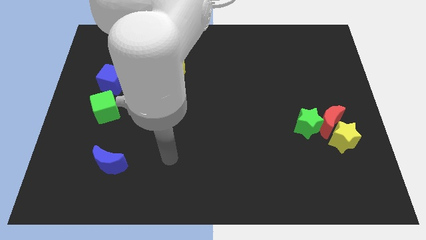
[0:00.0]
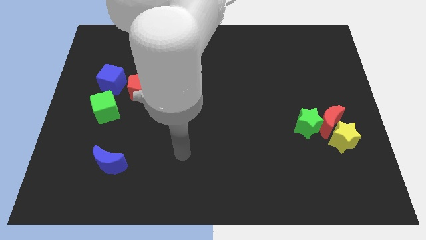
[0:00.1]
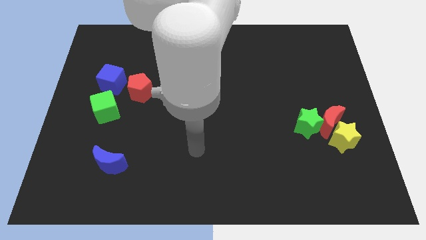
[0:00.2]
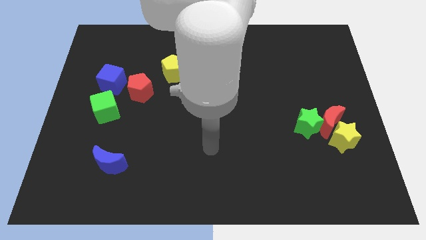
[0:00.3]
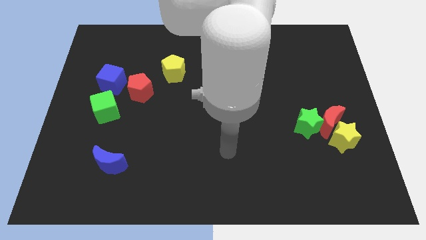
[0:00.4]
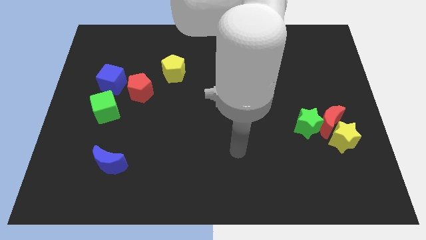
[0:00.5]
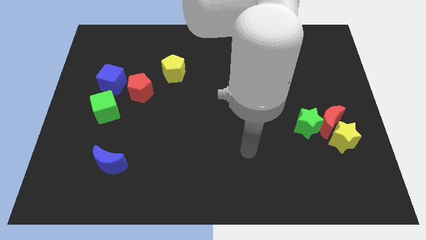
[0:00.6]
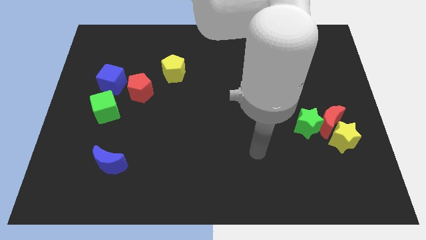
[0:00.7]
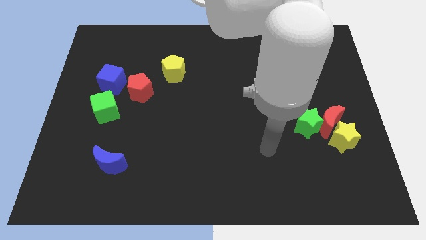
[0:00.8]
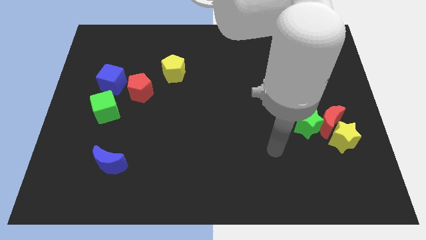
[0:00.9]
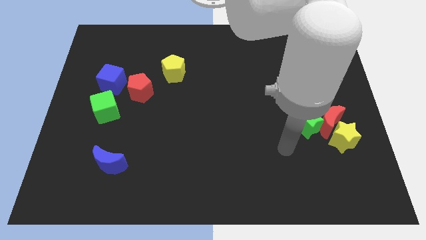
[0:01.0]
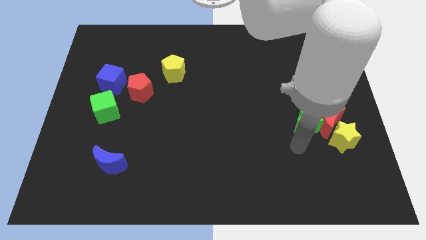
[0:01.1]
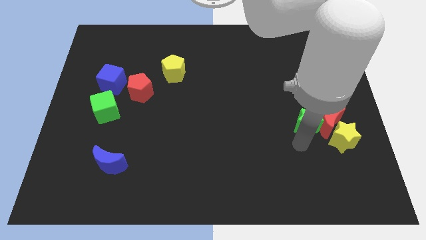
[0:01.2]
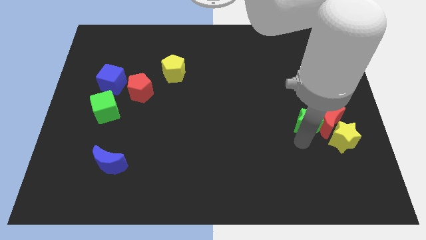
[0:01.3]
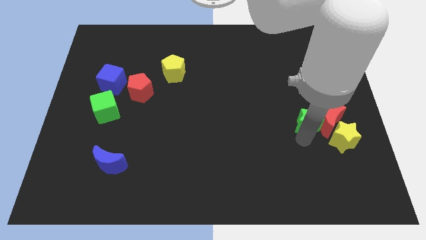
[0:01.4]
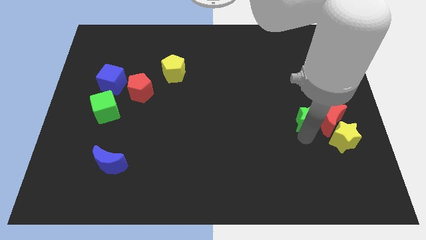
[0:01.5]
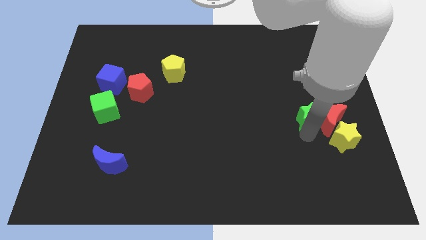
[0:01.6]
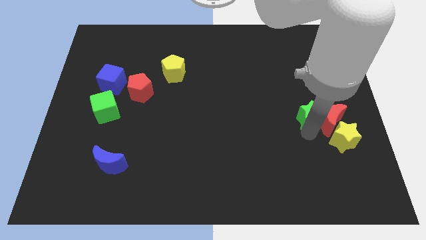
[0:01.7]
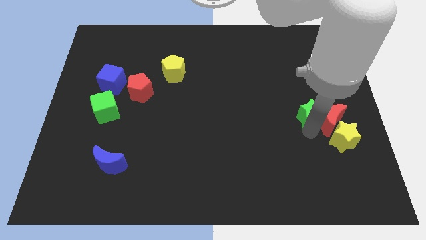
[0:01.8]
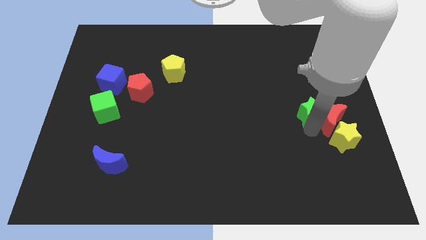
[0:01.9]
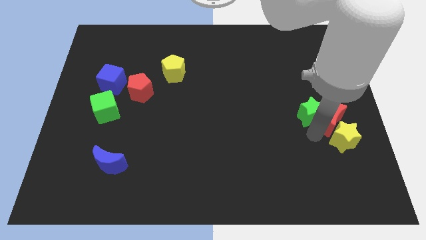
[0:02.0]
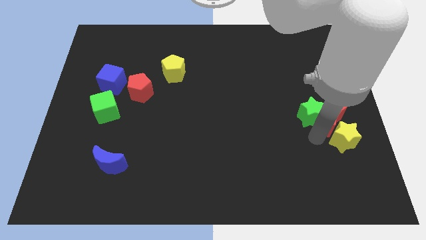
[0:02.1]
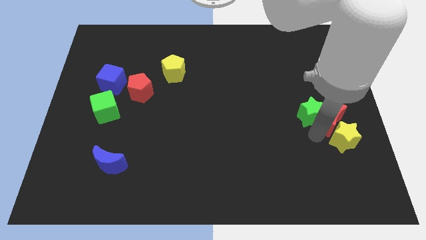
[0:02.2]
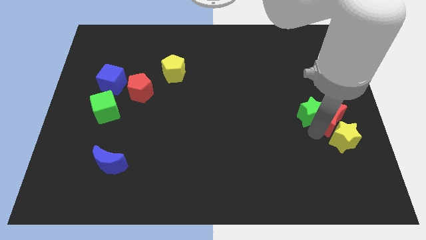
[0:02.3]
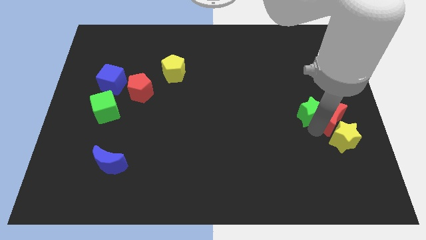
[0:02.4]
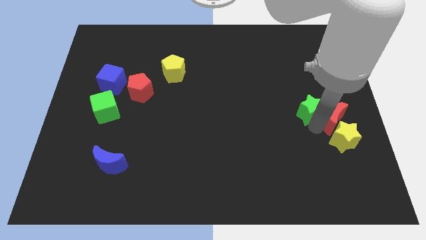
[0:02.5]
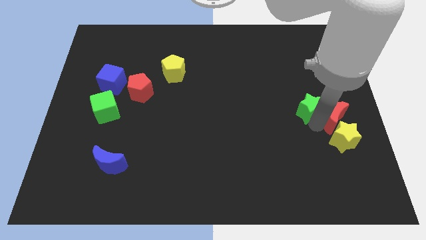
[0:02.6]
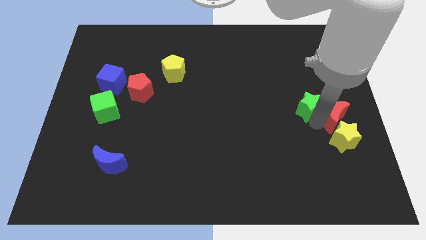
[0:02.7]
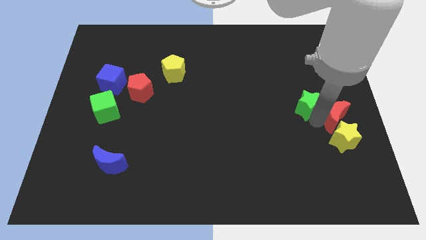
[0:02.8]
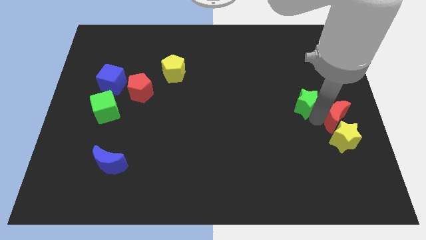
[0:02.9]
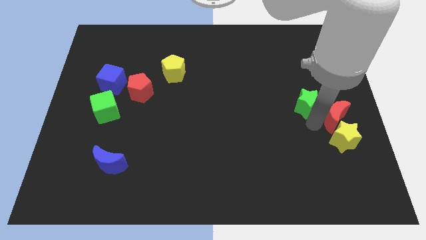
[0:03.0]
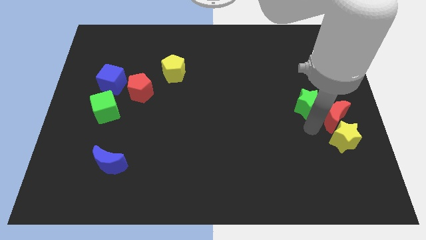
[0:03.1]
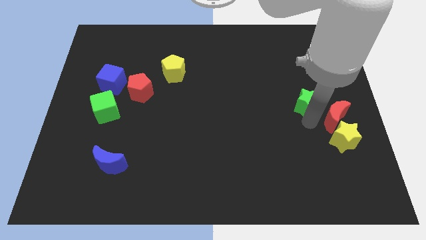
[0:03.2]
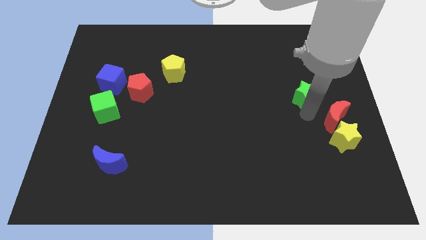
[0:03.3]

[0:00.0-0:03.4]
slide the green star up somewhat

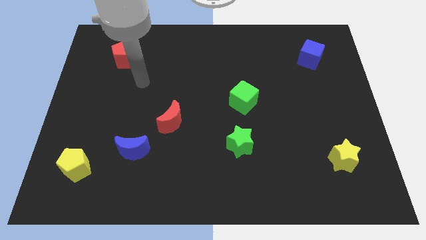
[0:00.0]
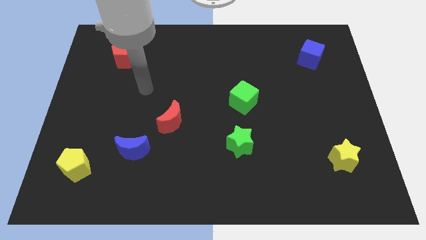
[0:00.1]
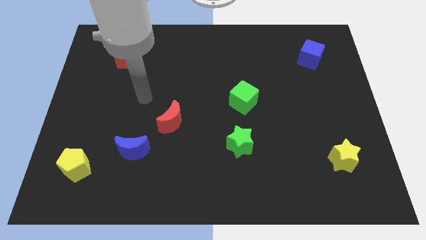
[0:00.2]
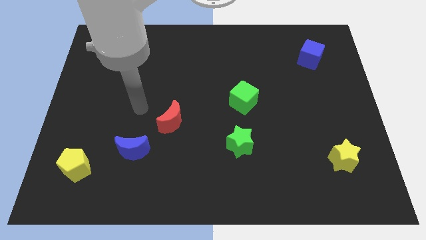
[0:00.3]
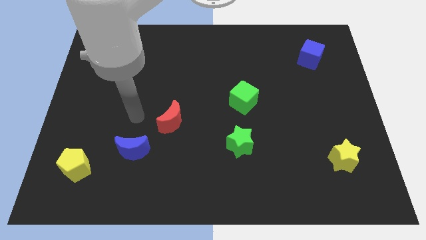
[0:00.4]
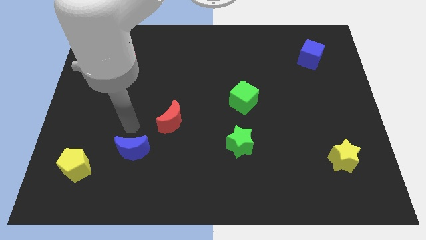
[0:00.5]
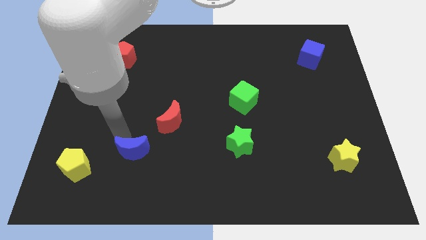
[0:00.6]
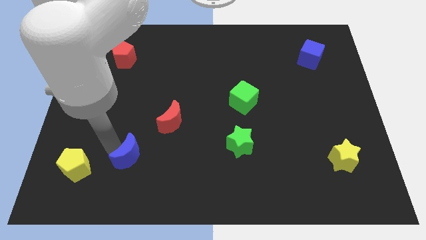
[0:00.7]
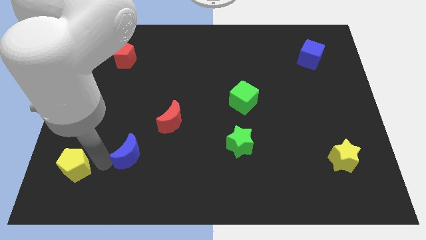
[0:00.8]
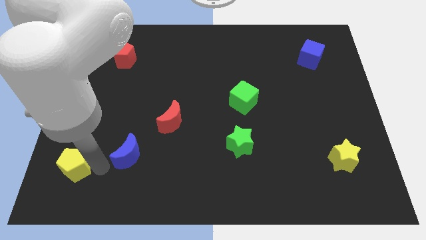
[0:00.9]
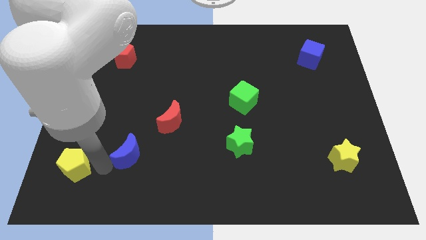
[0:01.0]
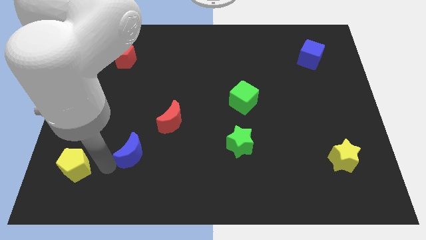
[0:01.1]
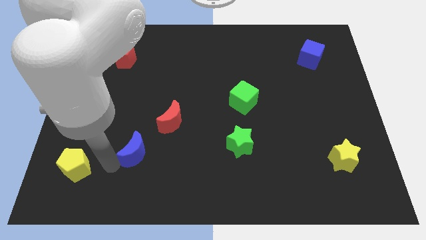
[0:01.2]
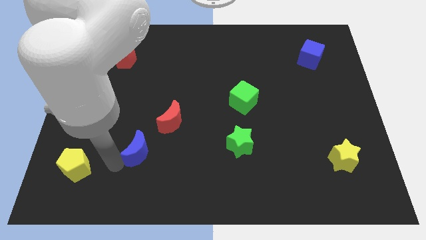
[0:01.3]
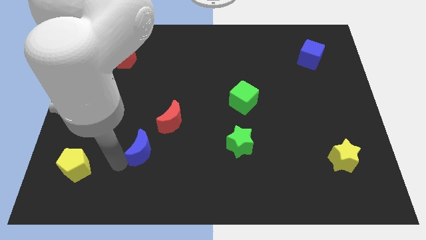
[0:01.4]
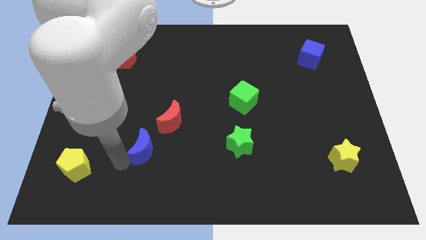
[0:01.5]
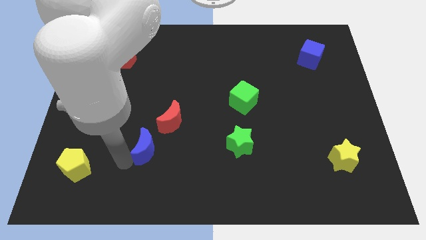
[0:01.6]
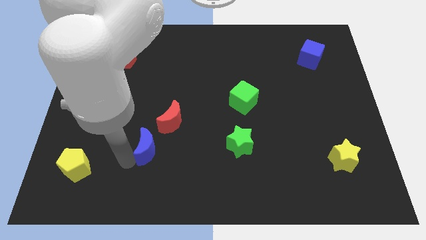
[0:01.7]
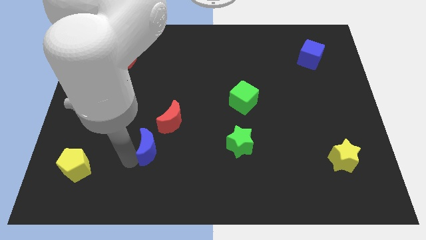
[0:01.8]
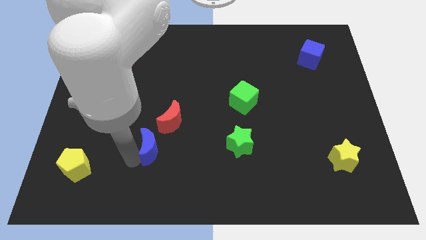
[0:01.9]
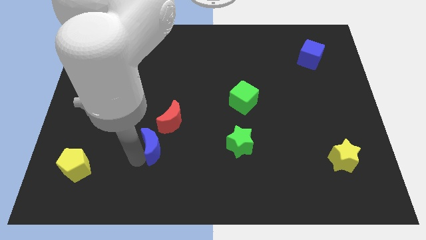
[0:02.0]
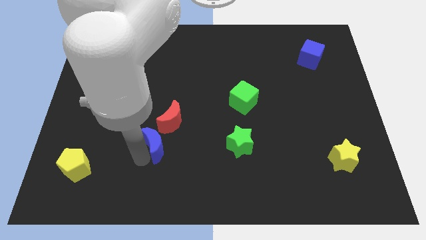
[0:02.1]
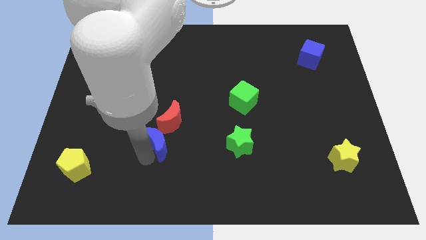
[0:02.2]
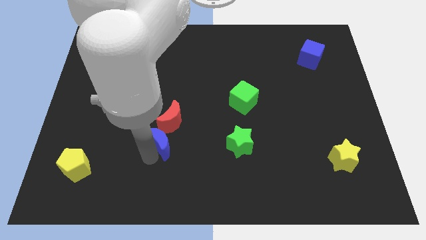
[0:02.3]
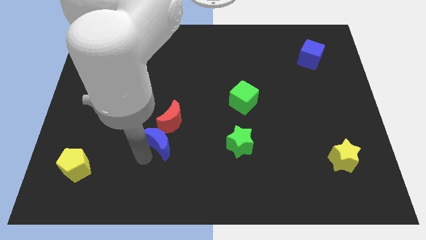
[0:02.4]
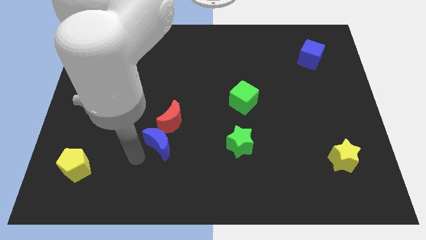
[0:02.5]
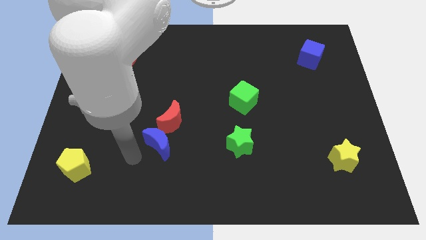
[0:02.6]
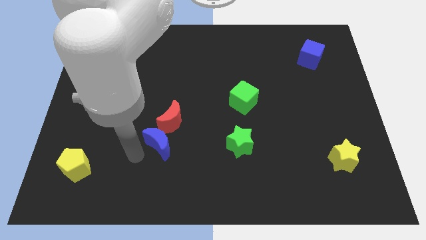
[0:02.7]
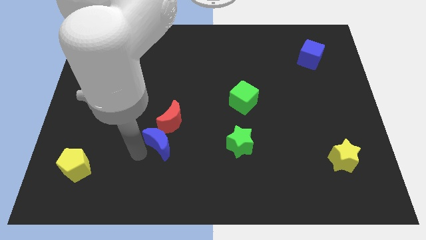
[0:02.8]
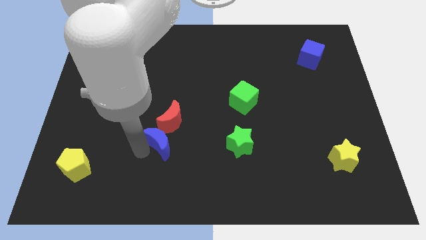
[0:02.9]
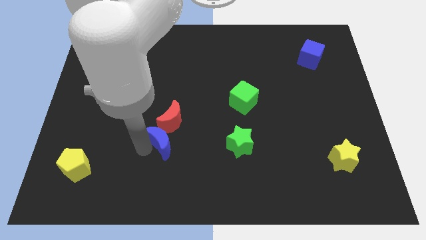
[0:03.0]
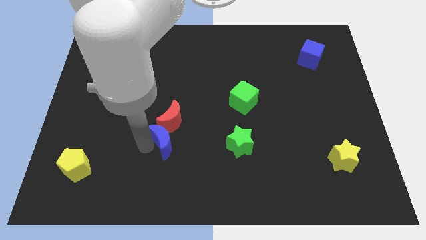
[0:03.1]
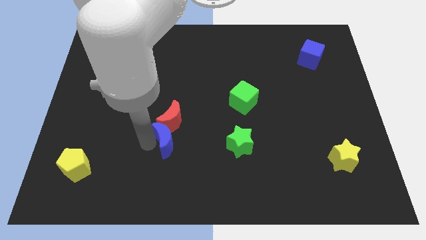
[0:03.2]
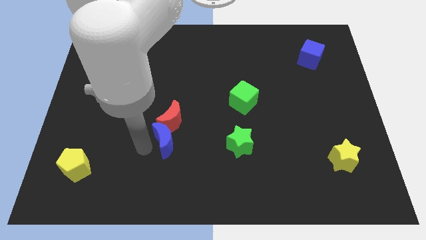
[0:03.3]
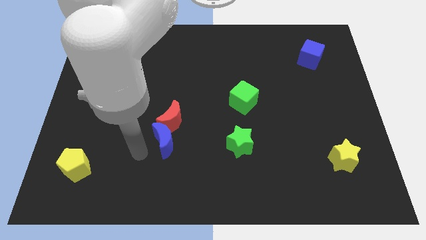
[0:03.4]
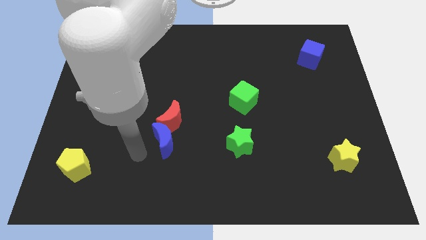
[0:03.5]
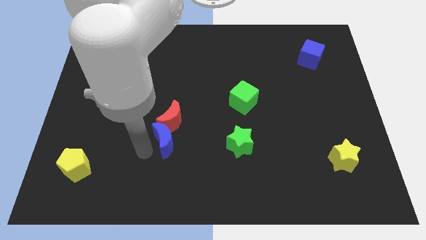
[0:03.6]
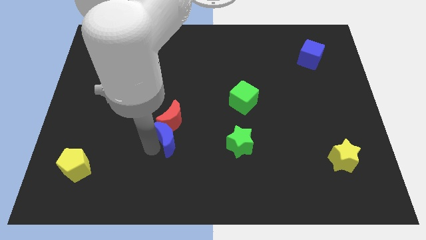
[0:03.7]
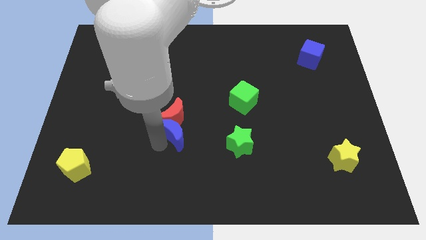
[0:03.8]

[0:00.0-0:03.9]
slide the blue moon somewhat up and right diagonally

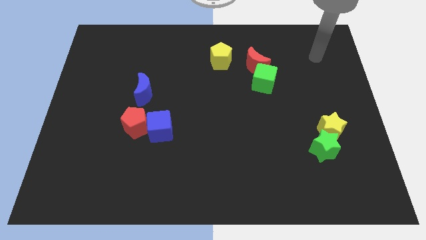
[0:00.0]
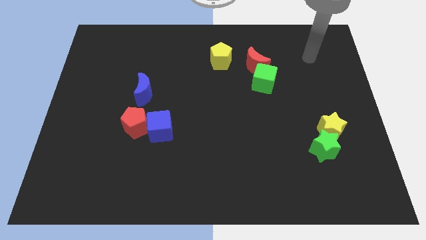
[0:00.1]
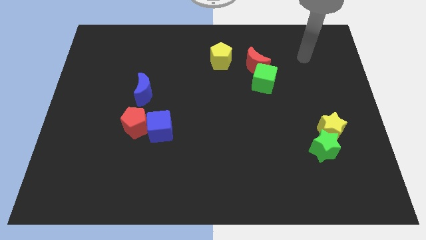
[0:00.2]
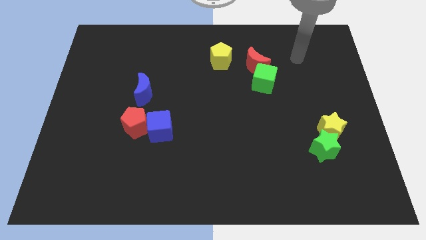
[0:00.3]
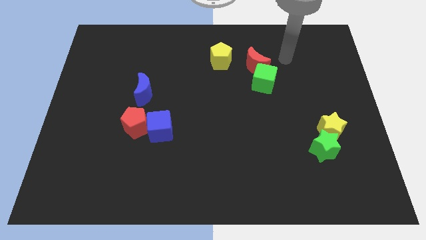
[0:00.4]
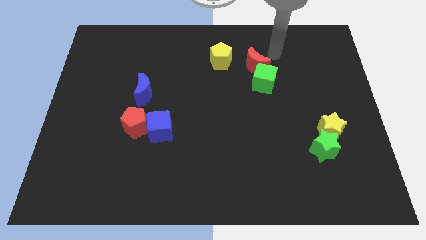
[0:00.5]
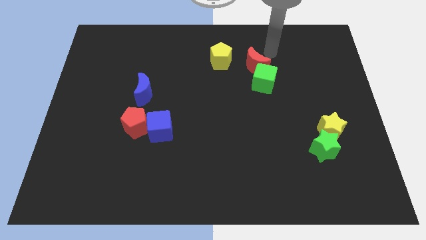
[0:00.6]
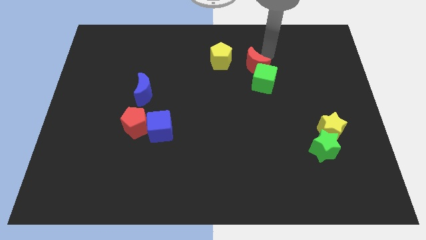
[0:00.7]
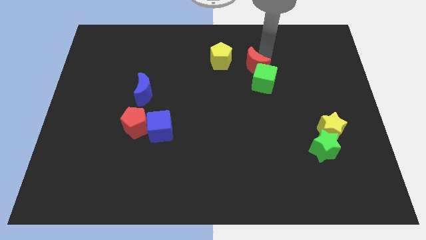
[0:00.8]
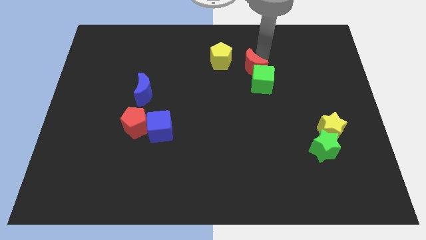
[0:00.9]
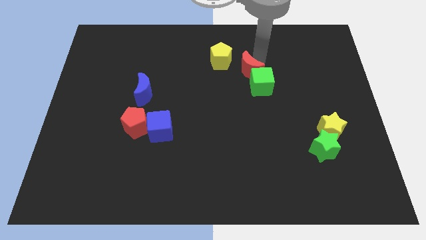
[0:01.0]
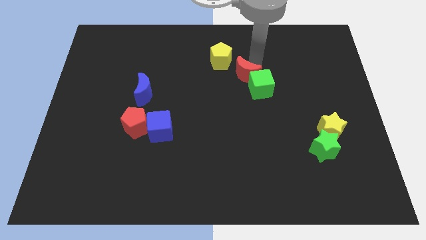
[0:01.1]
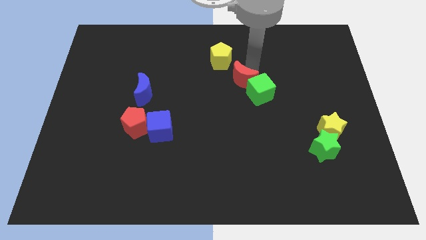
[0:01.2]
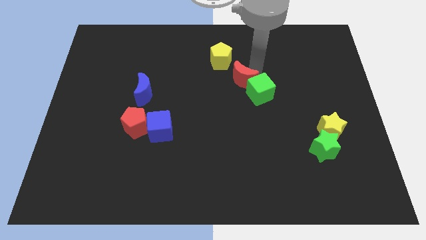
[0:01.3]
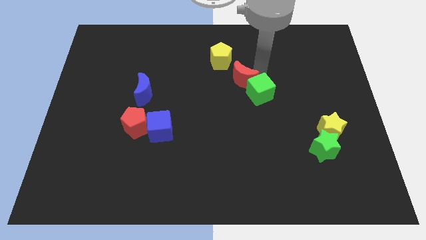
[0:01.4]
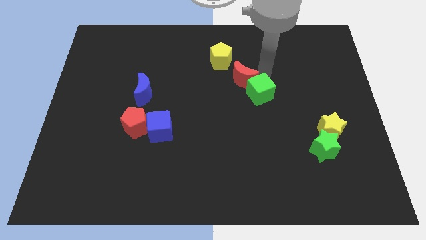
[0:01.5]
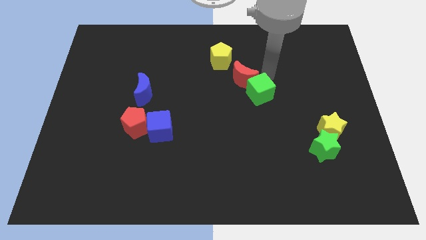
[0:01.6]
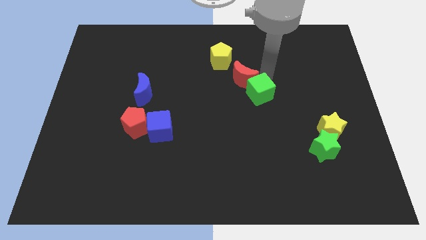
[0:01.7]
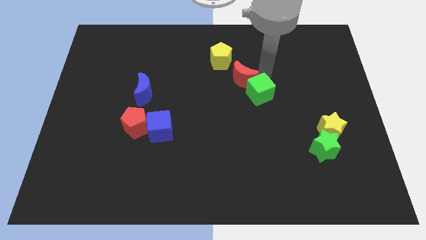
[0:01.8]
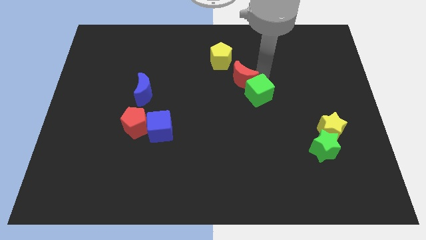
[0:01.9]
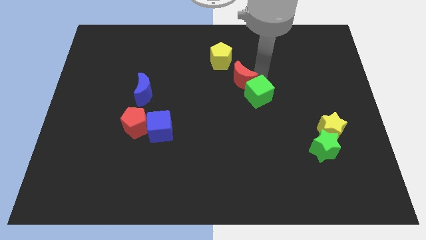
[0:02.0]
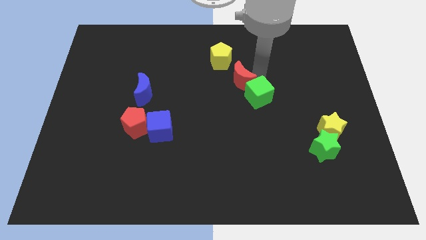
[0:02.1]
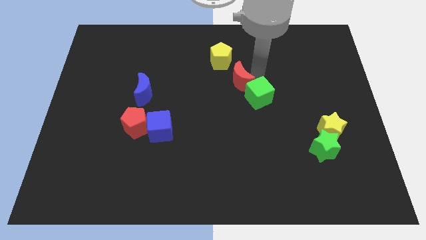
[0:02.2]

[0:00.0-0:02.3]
slightly slide the red moon downwards and to the left
